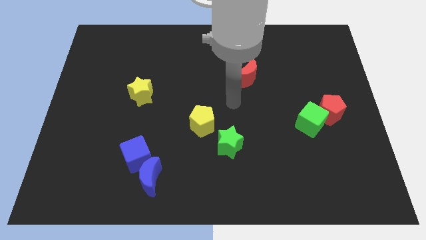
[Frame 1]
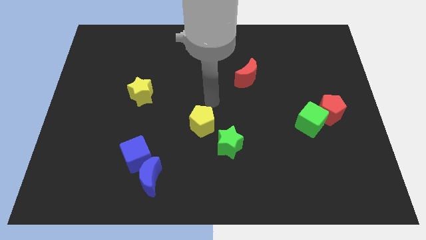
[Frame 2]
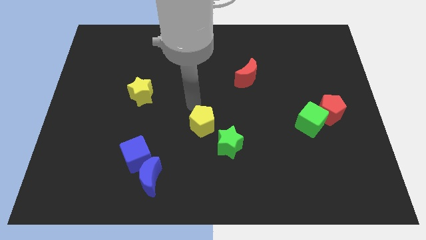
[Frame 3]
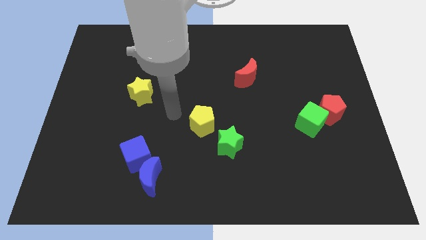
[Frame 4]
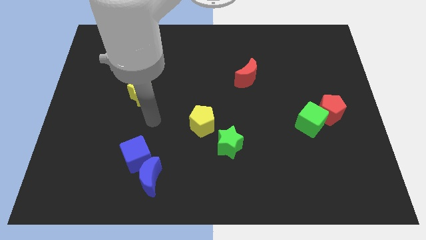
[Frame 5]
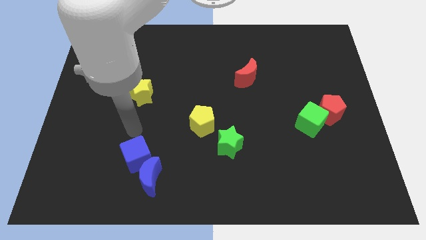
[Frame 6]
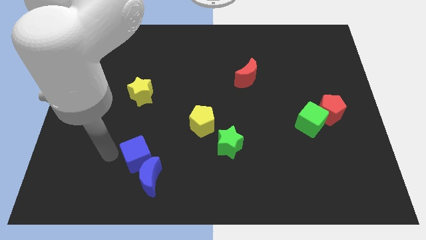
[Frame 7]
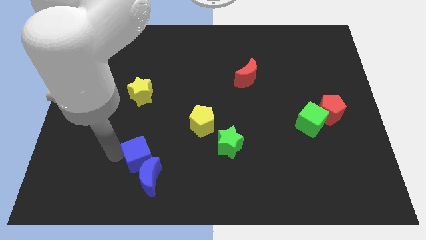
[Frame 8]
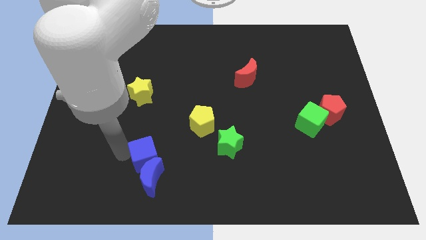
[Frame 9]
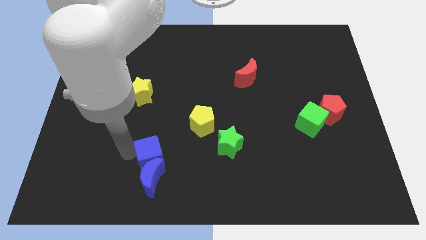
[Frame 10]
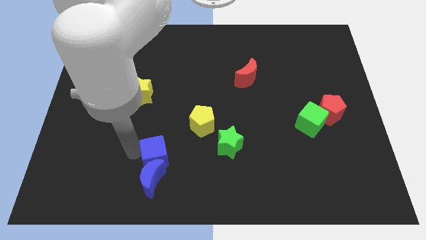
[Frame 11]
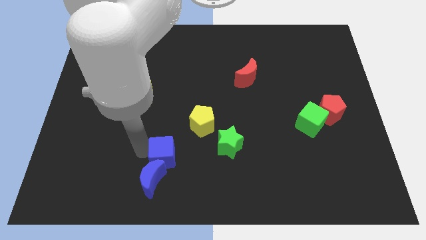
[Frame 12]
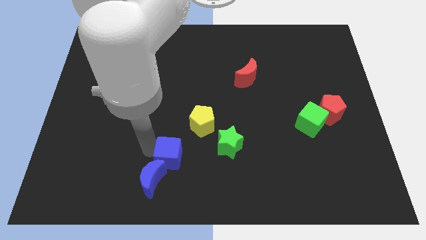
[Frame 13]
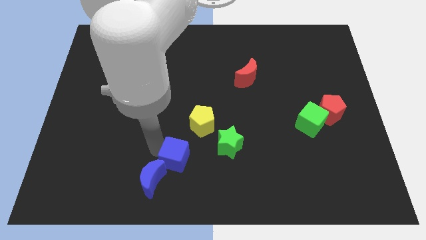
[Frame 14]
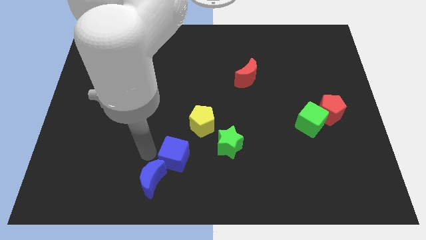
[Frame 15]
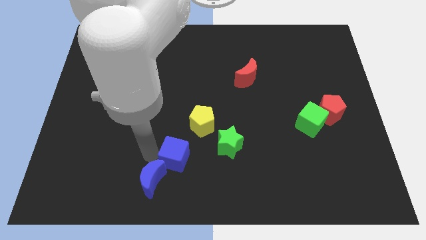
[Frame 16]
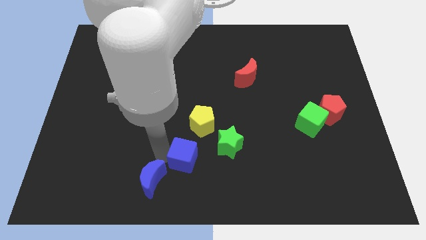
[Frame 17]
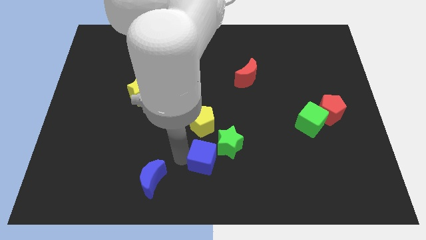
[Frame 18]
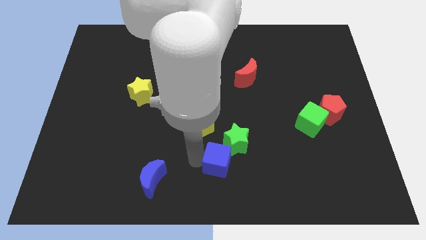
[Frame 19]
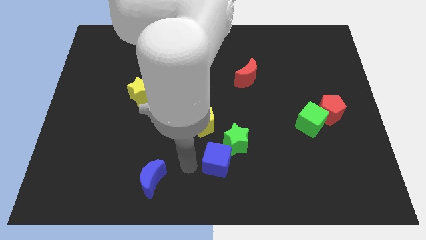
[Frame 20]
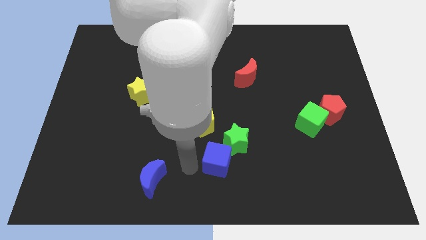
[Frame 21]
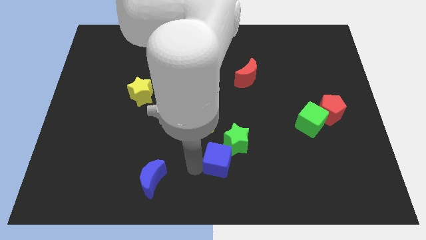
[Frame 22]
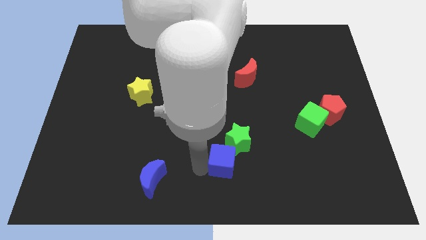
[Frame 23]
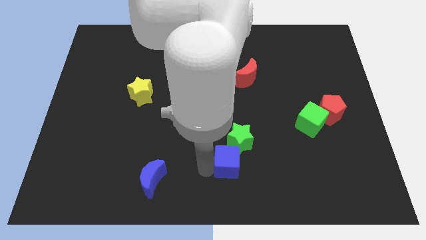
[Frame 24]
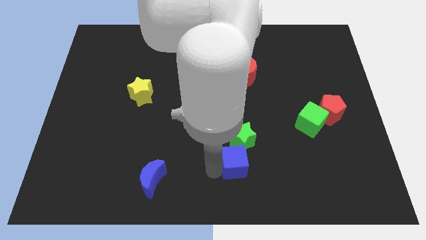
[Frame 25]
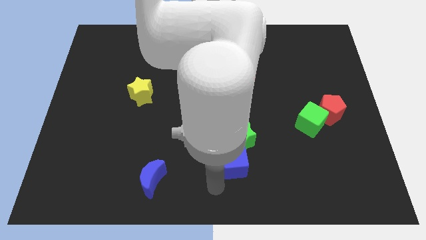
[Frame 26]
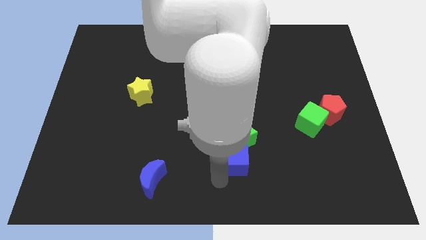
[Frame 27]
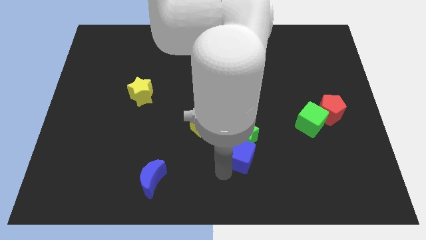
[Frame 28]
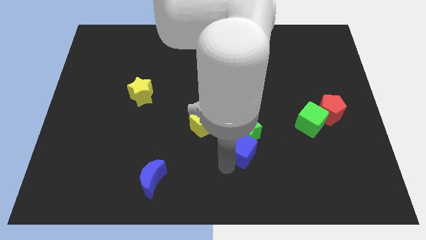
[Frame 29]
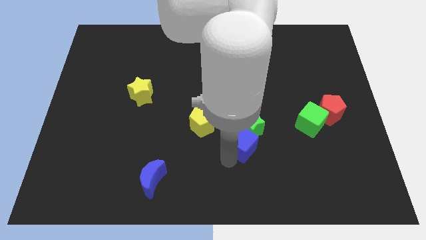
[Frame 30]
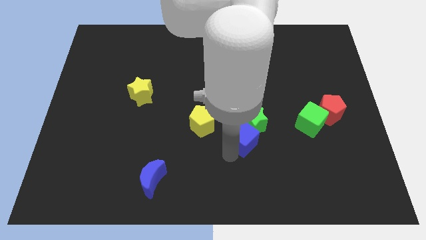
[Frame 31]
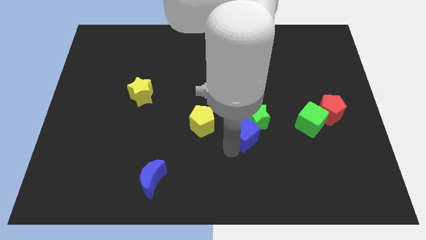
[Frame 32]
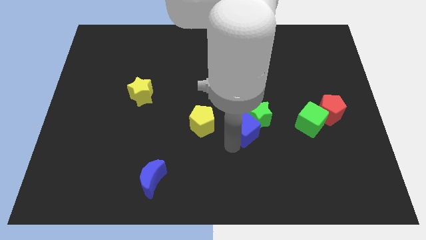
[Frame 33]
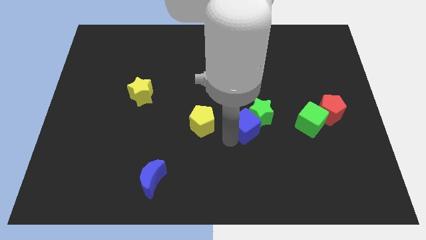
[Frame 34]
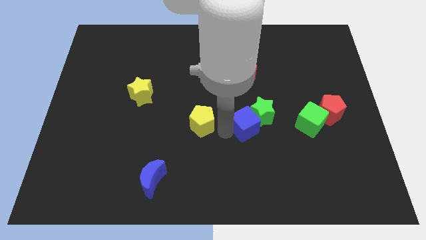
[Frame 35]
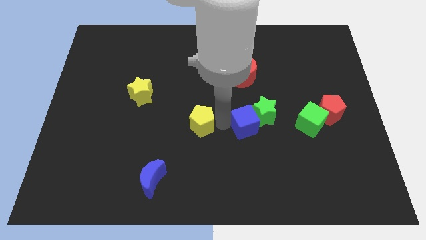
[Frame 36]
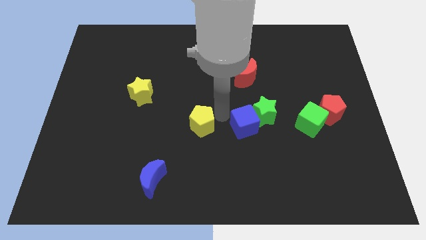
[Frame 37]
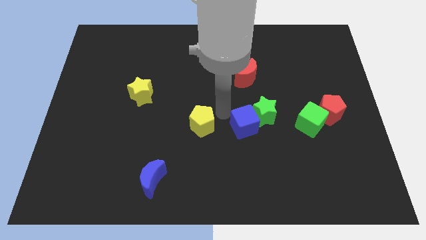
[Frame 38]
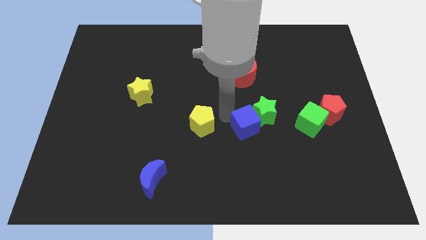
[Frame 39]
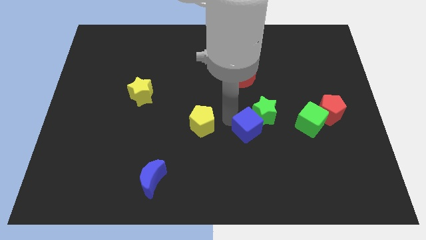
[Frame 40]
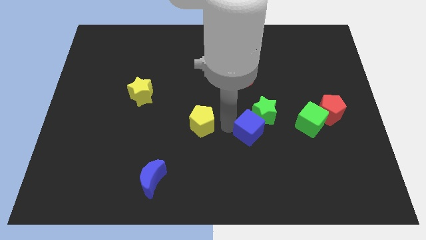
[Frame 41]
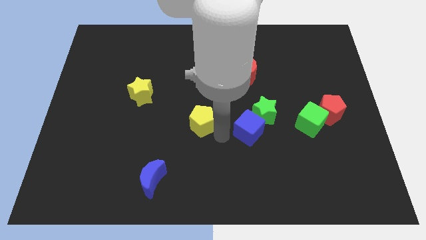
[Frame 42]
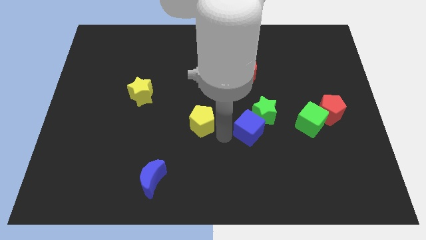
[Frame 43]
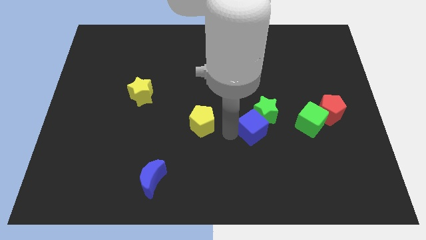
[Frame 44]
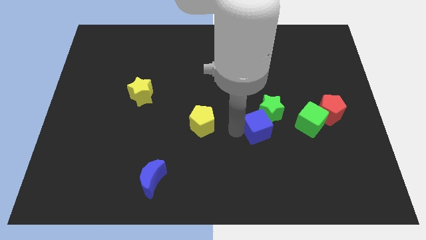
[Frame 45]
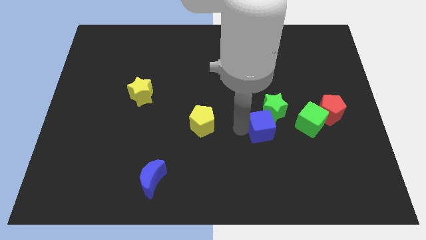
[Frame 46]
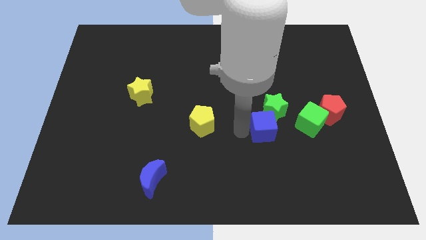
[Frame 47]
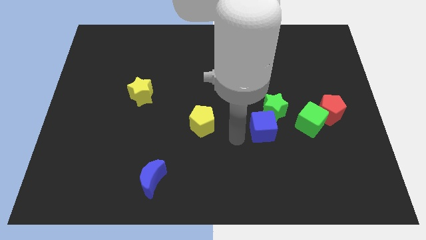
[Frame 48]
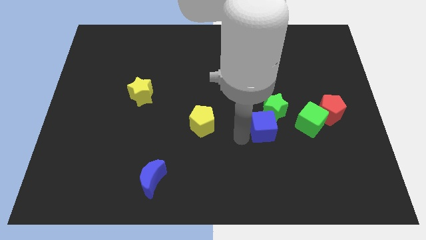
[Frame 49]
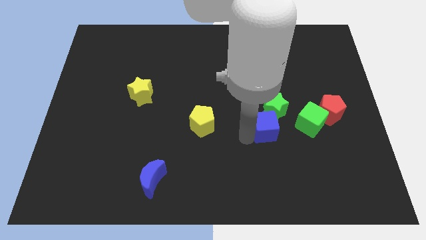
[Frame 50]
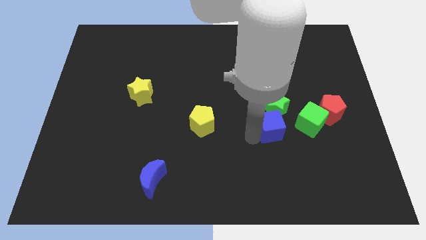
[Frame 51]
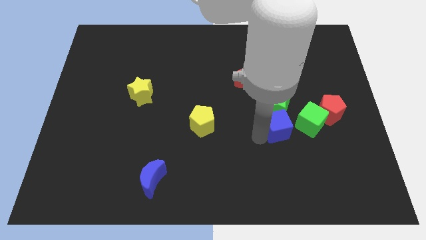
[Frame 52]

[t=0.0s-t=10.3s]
push the blue cube to the left of the red pentagon

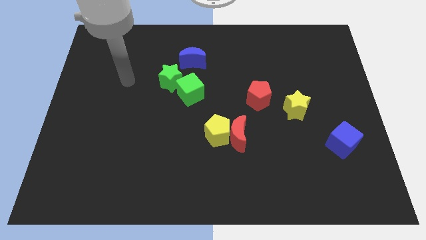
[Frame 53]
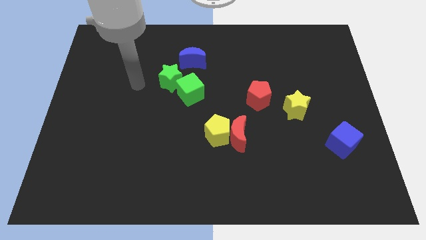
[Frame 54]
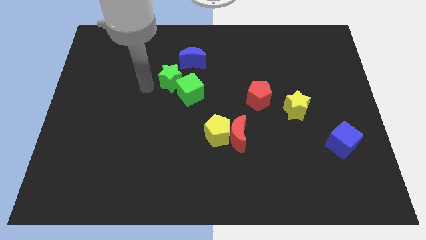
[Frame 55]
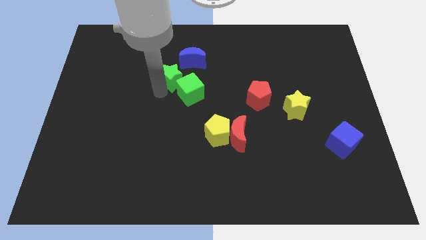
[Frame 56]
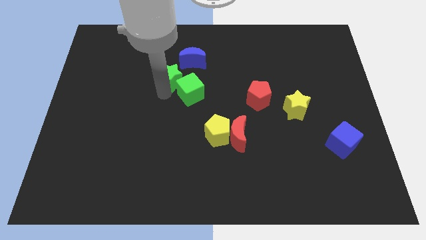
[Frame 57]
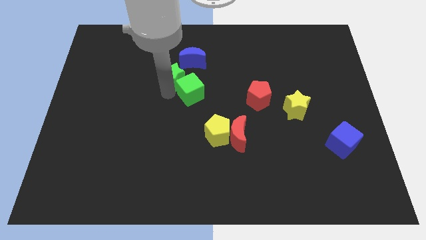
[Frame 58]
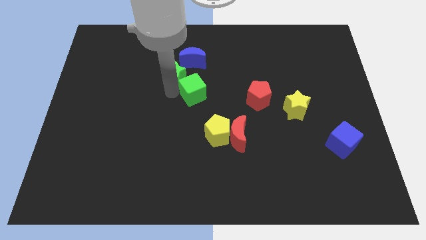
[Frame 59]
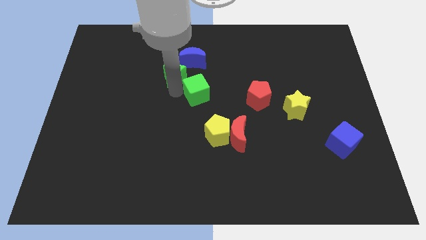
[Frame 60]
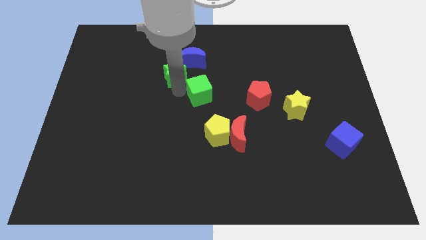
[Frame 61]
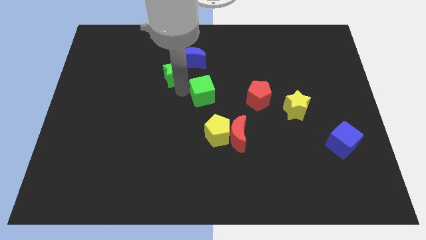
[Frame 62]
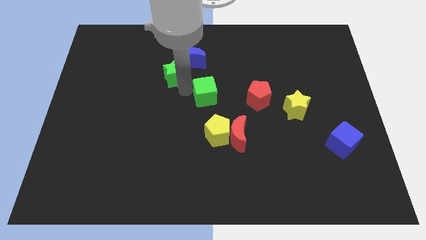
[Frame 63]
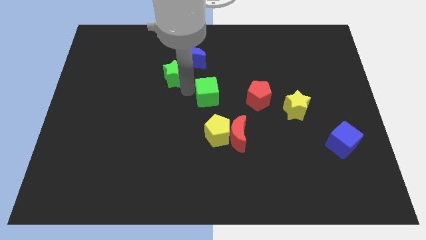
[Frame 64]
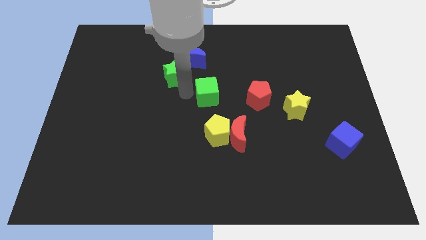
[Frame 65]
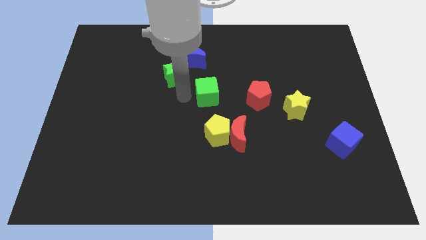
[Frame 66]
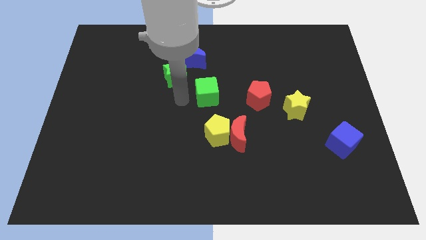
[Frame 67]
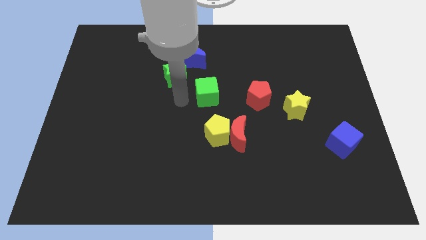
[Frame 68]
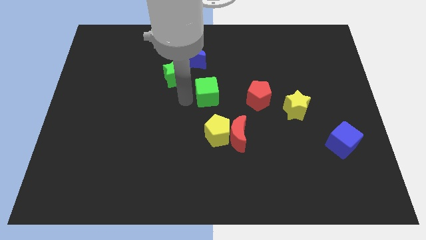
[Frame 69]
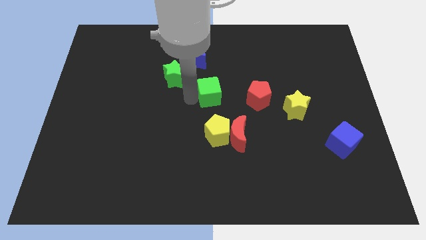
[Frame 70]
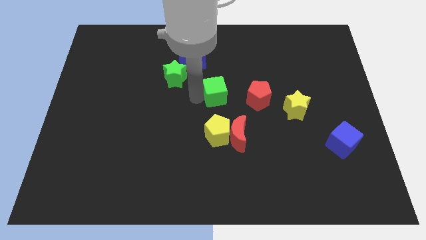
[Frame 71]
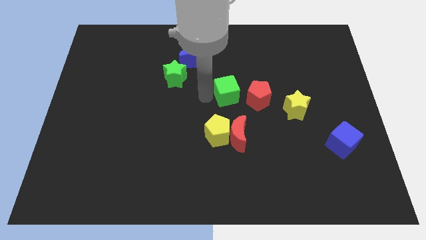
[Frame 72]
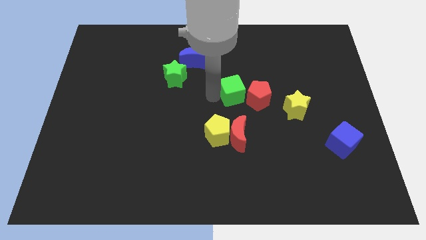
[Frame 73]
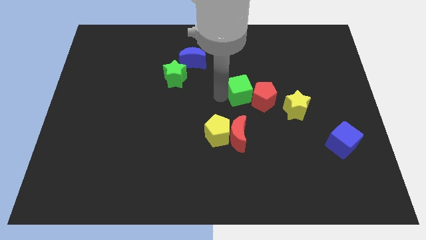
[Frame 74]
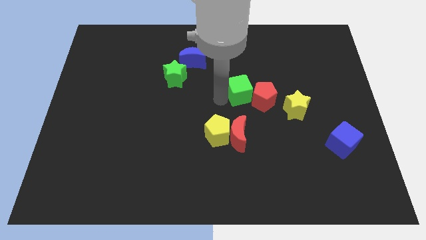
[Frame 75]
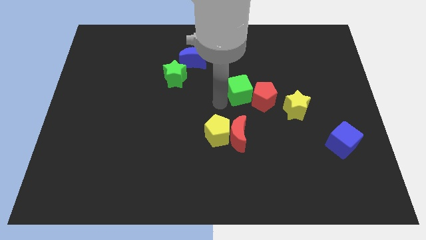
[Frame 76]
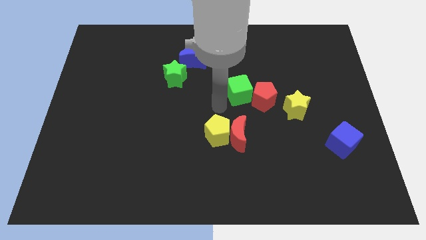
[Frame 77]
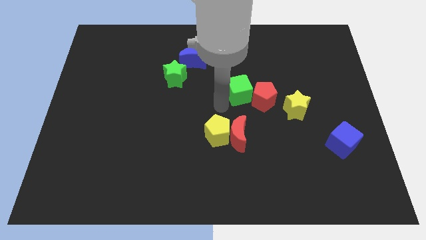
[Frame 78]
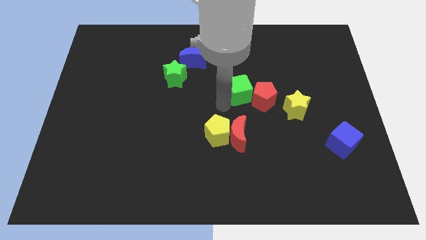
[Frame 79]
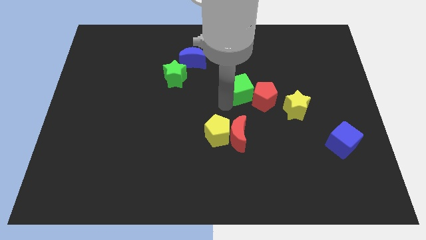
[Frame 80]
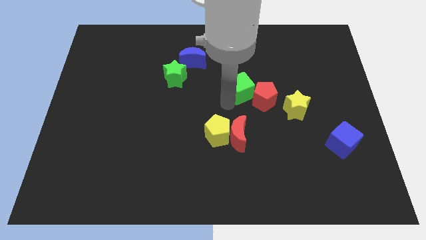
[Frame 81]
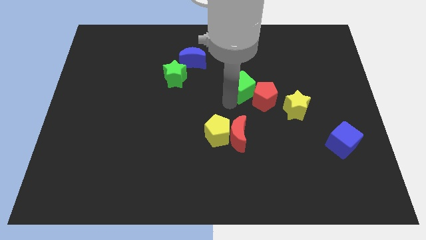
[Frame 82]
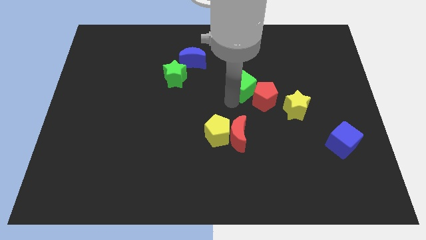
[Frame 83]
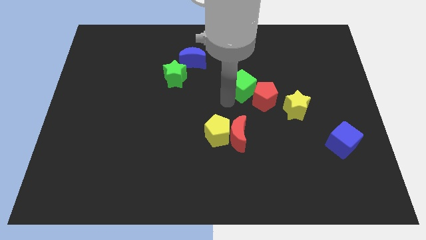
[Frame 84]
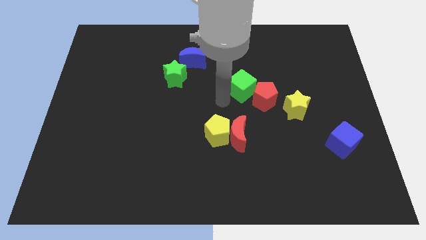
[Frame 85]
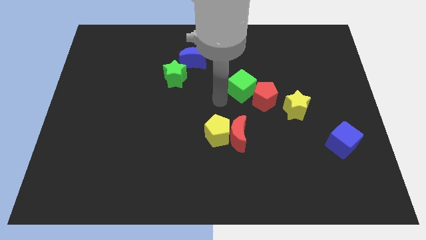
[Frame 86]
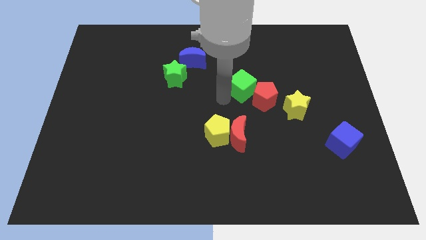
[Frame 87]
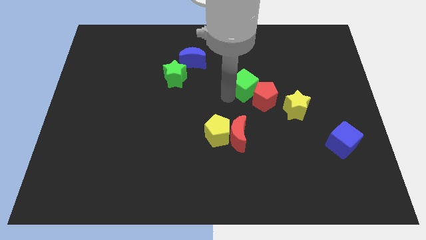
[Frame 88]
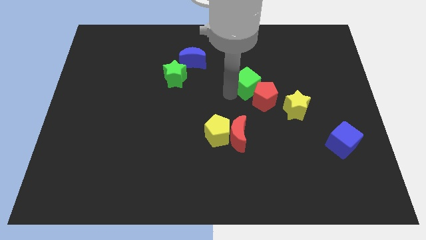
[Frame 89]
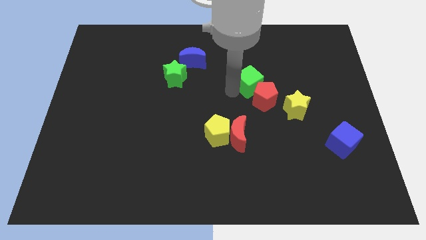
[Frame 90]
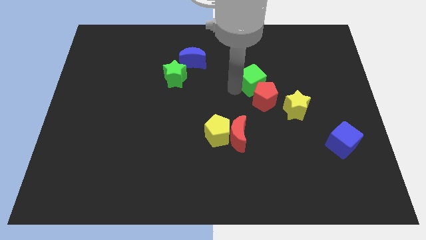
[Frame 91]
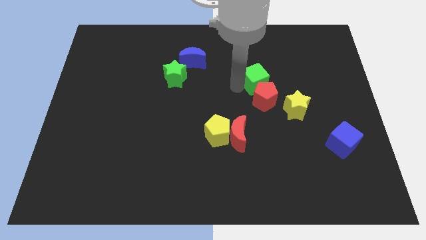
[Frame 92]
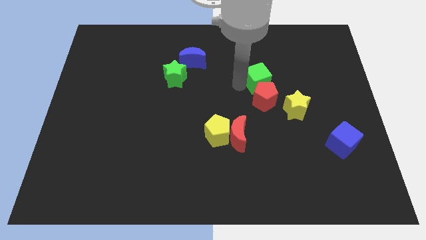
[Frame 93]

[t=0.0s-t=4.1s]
move the green cube to the top right side of the red pentagon
